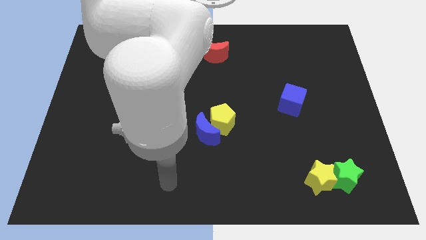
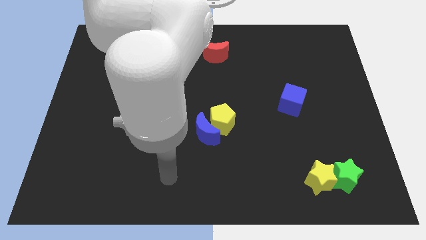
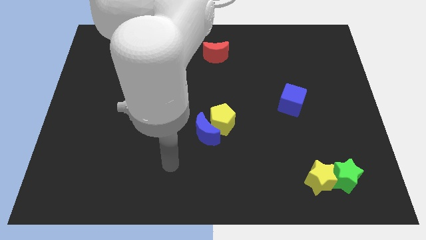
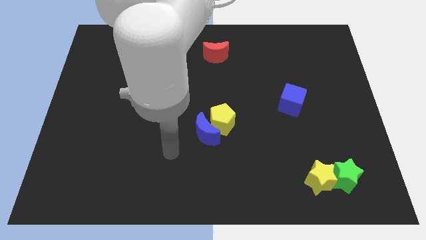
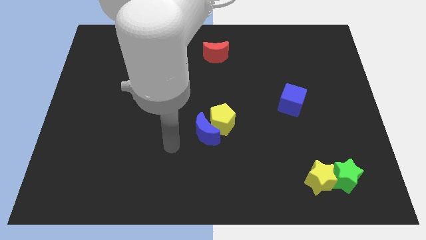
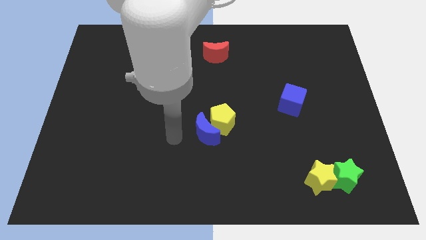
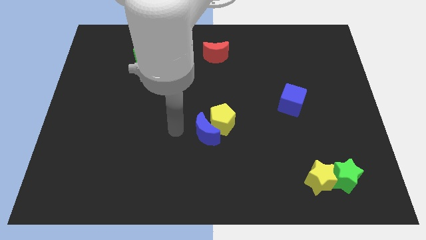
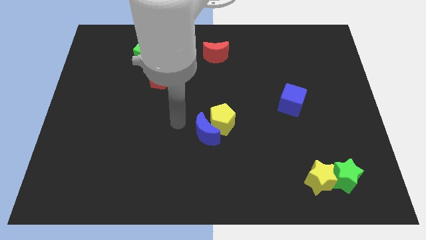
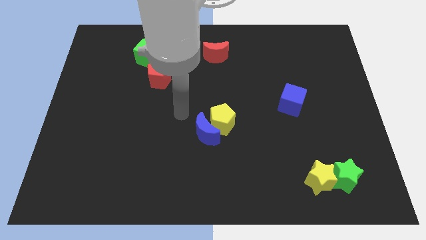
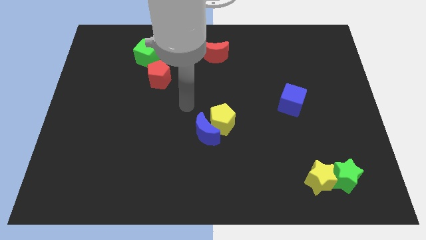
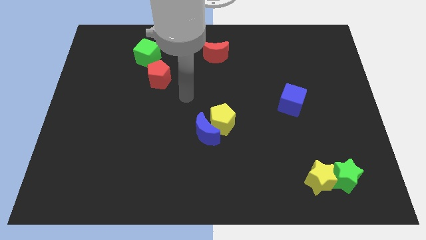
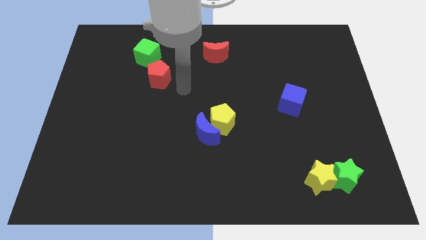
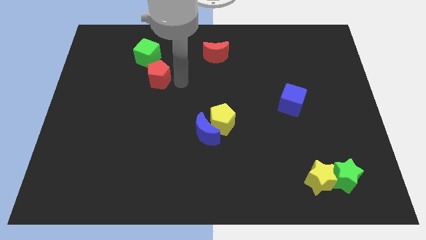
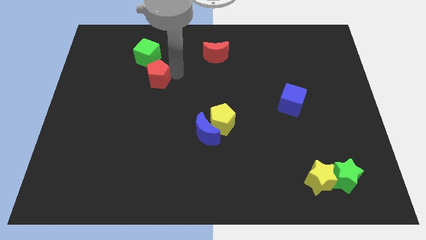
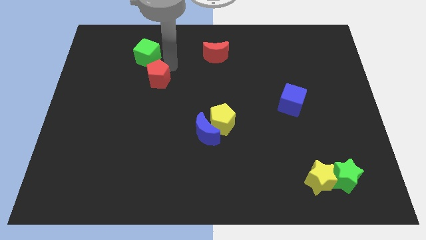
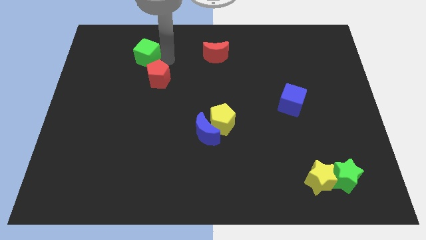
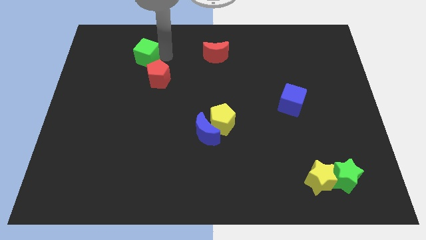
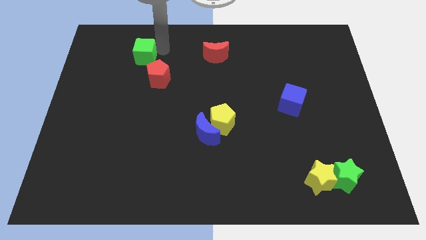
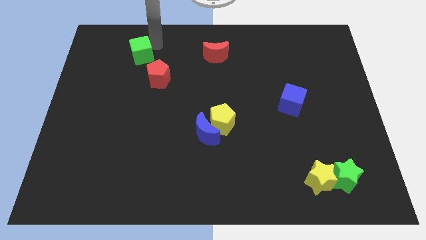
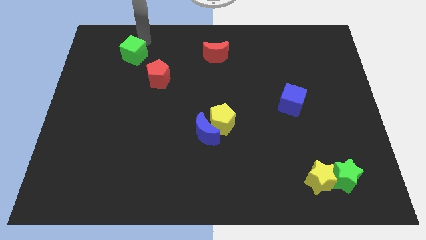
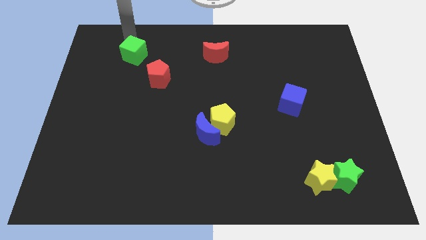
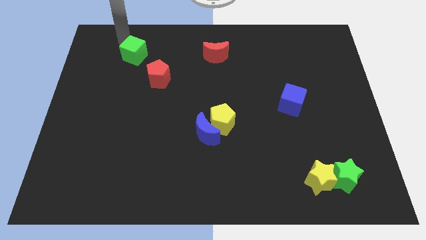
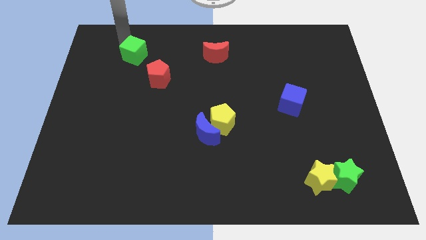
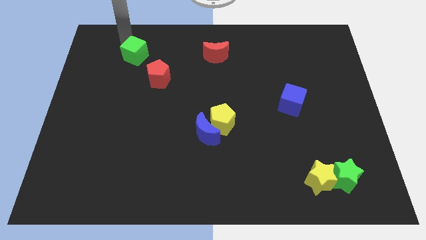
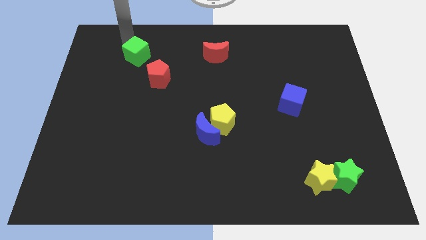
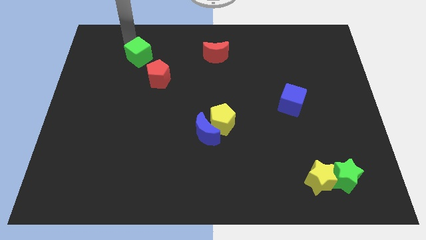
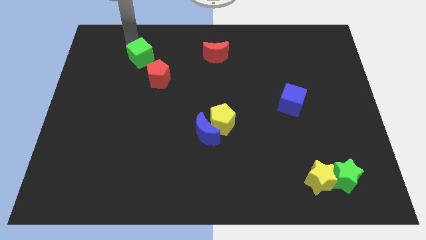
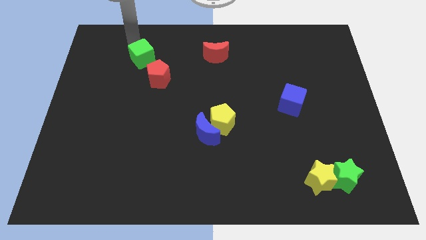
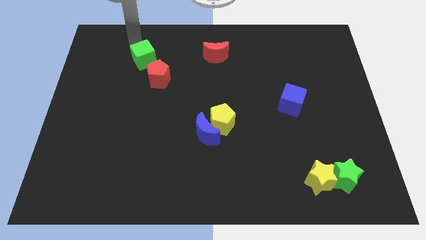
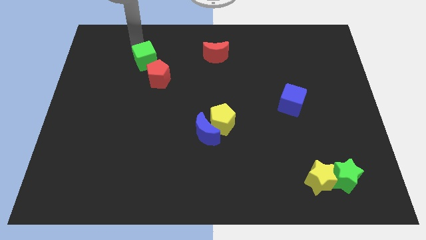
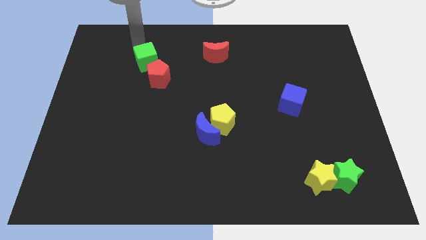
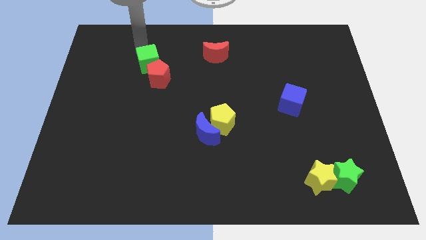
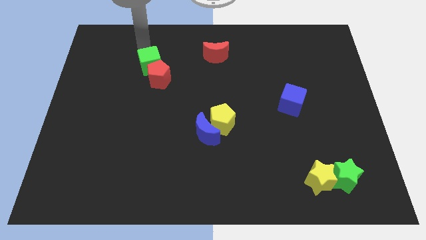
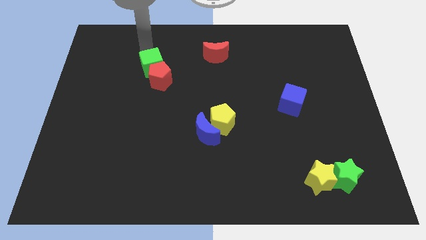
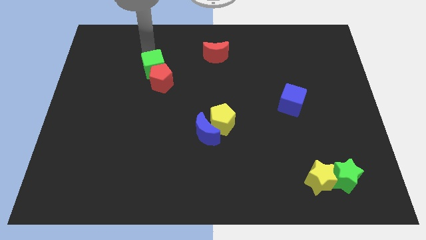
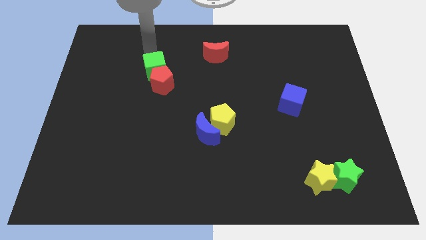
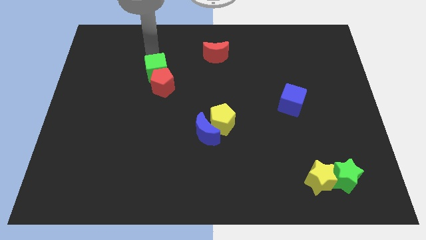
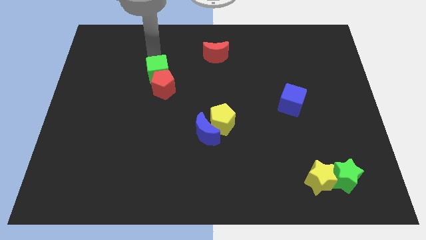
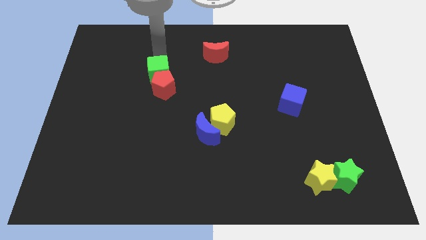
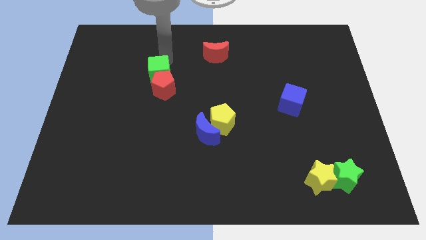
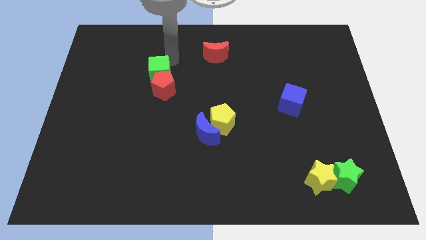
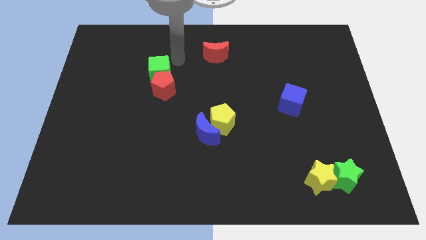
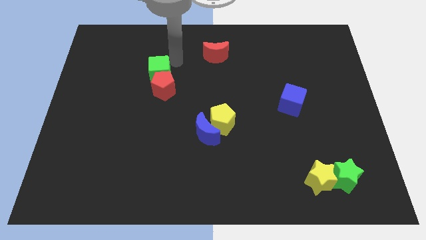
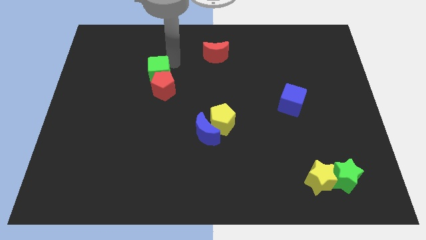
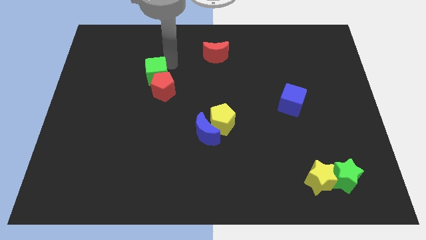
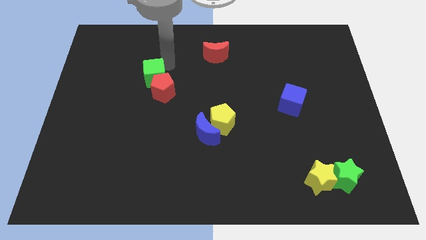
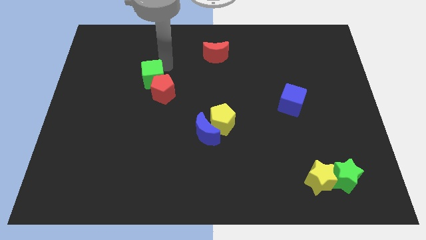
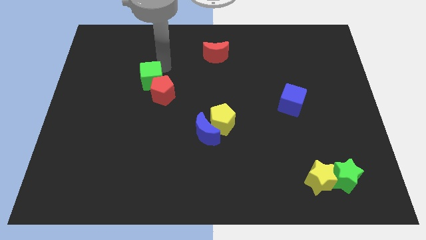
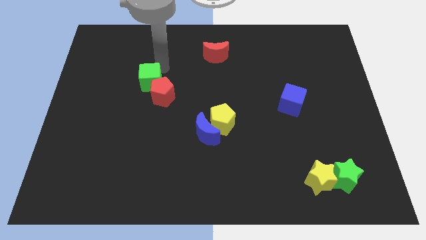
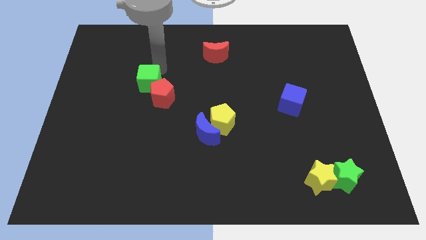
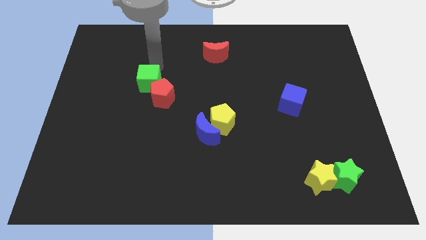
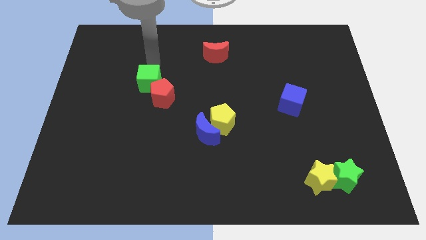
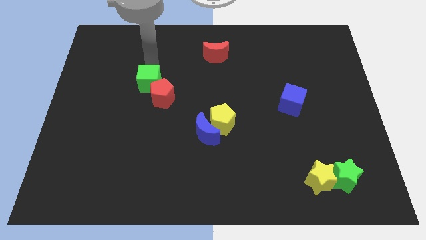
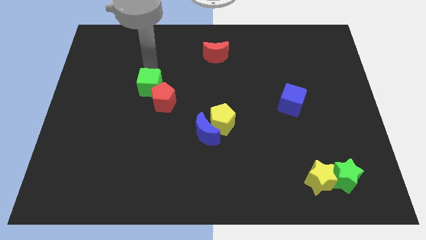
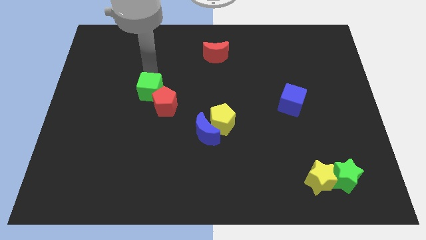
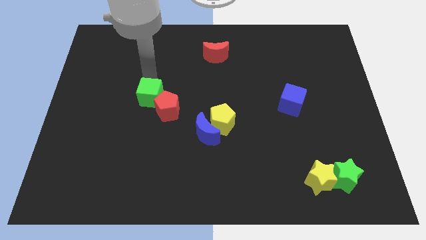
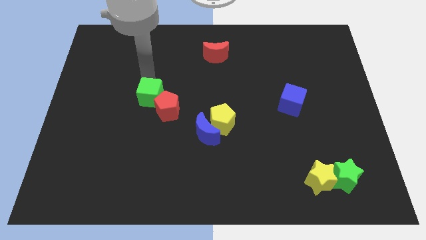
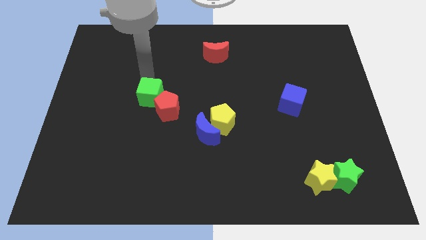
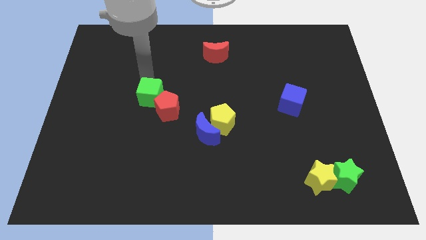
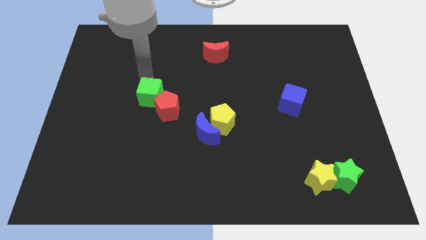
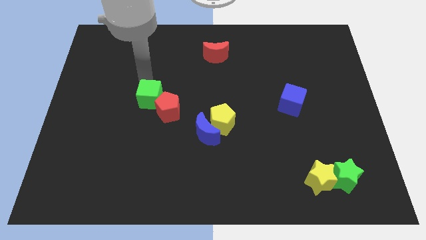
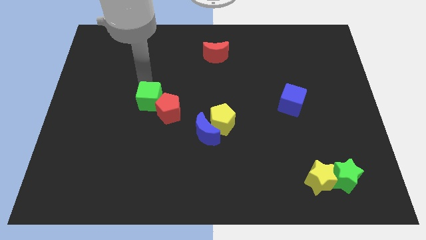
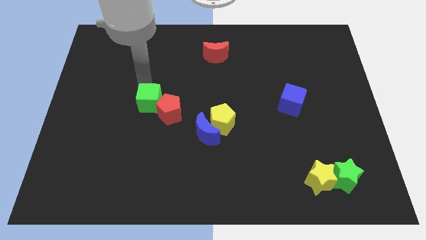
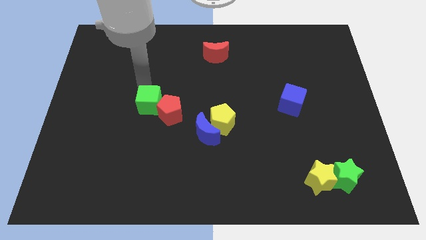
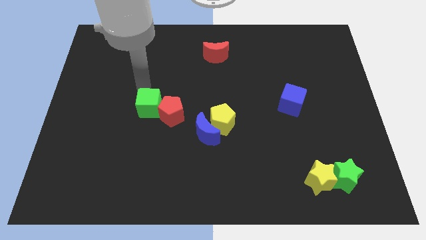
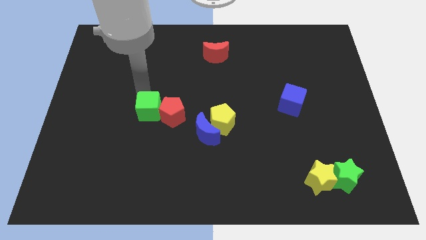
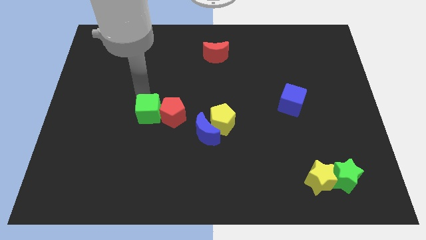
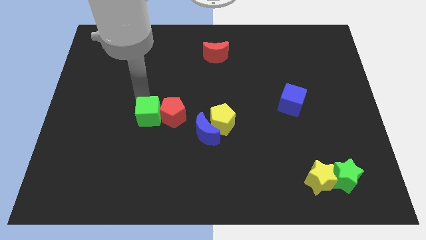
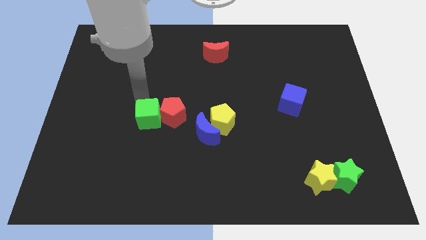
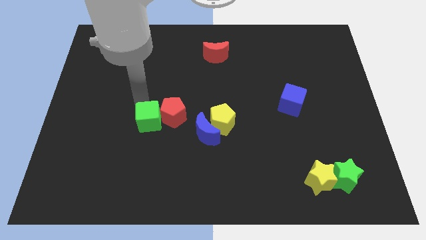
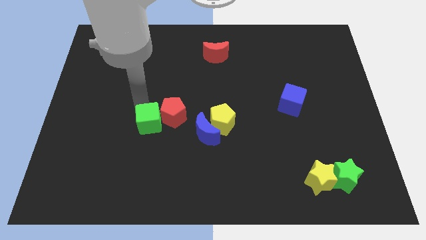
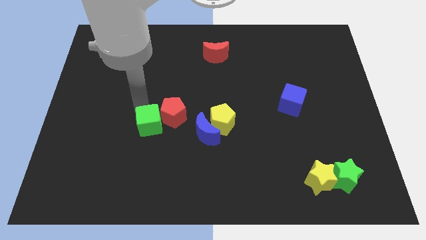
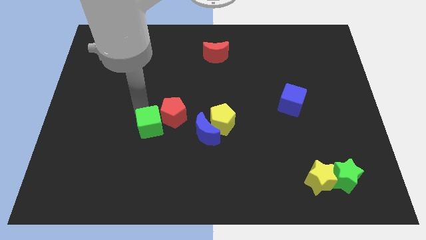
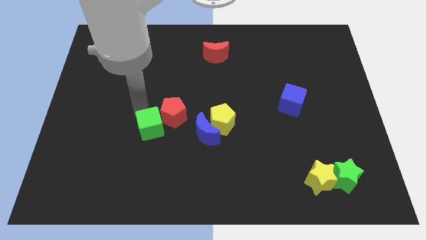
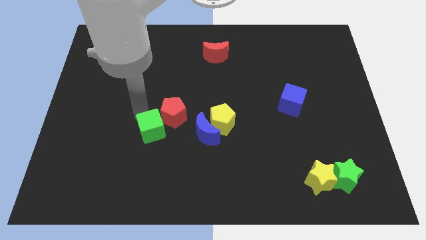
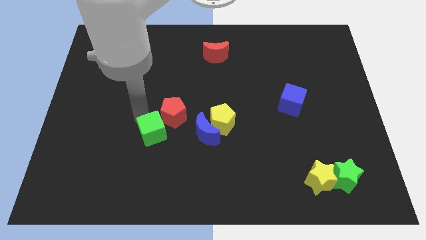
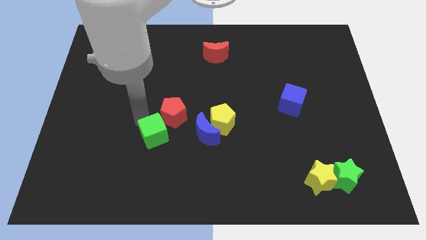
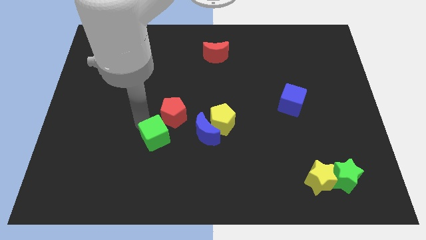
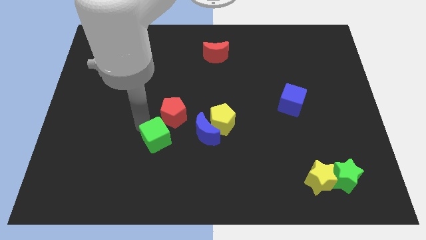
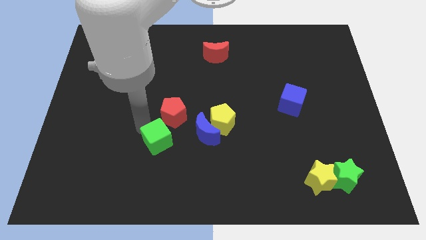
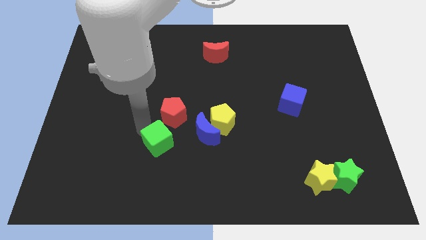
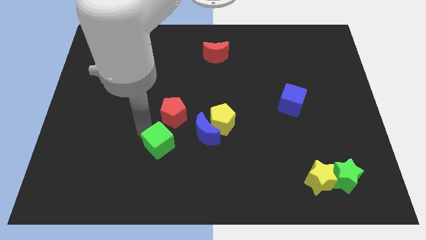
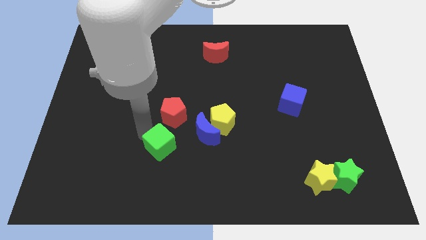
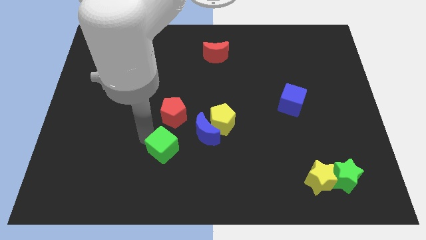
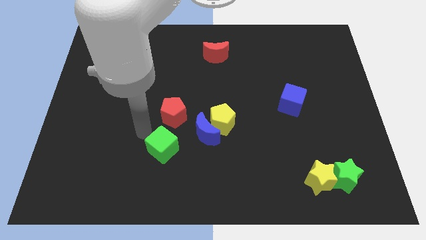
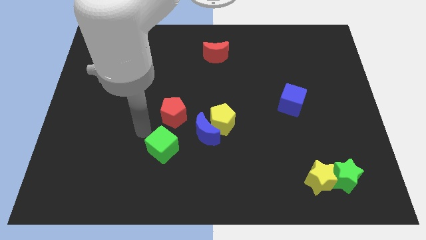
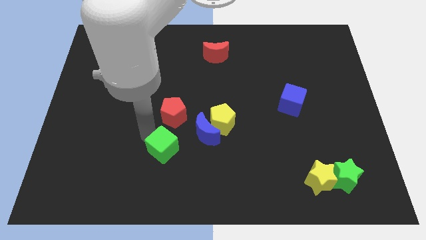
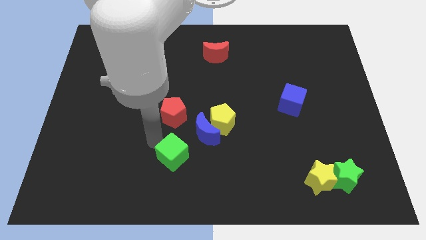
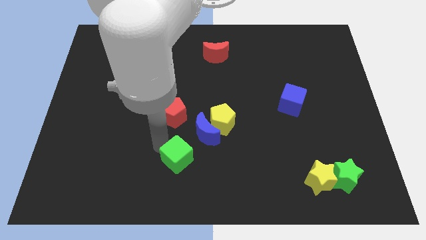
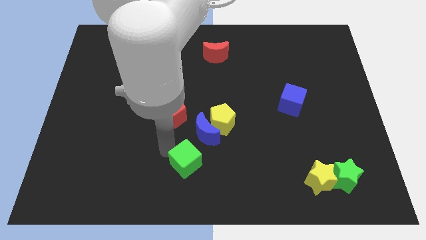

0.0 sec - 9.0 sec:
move the green cube to the bottom
